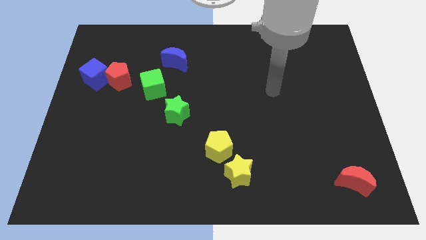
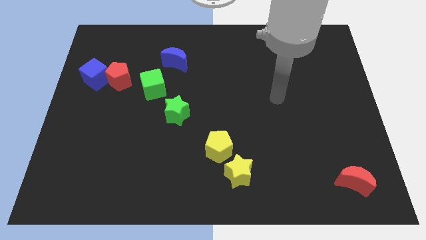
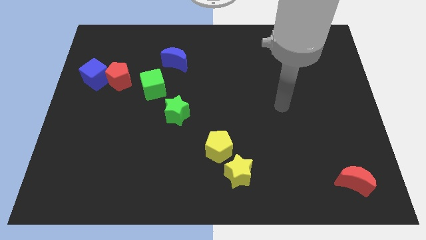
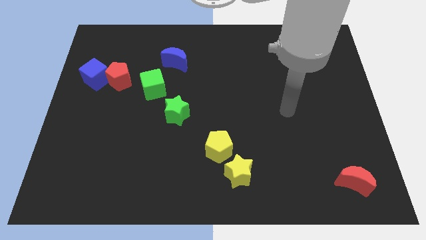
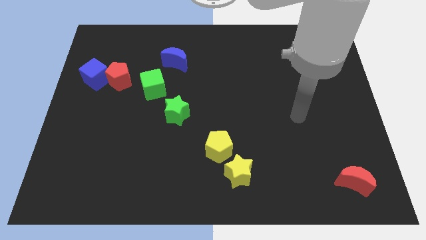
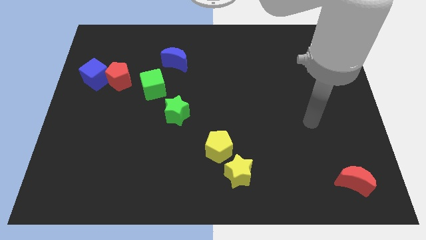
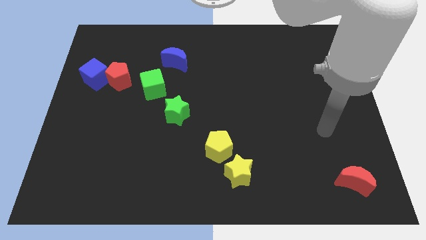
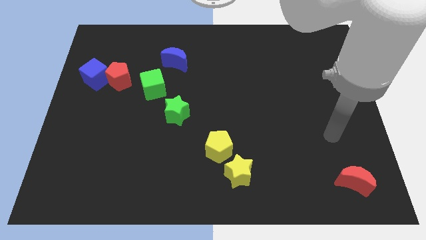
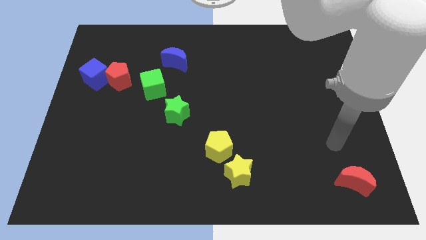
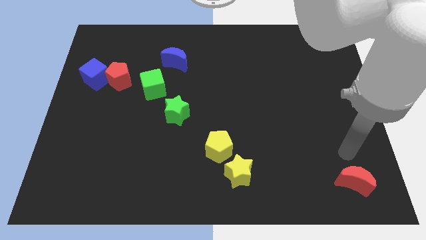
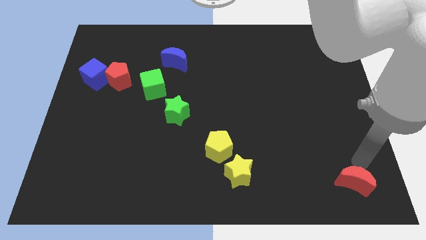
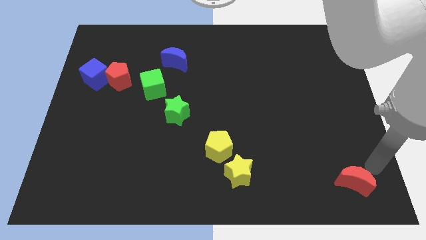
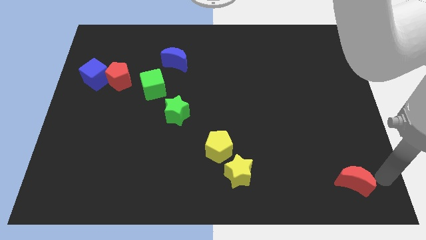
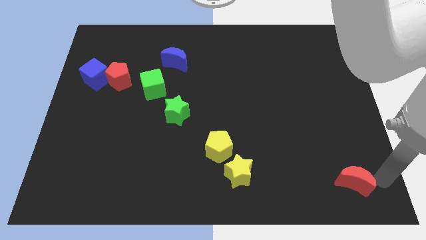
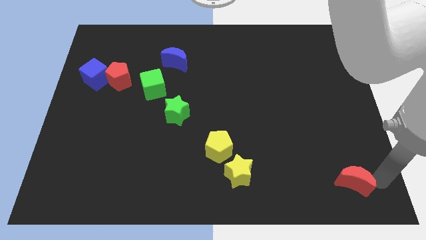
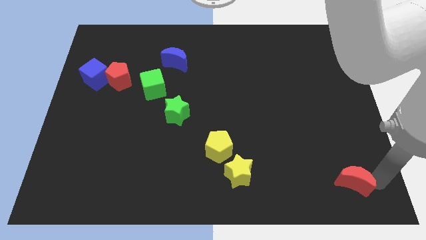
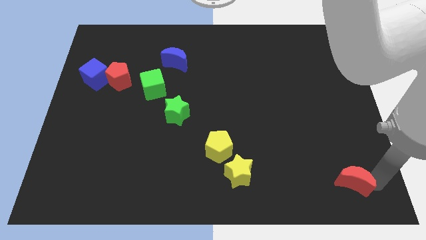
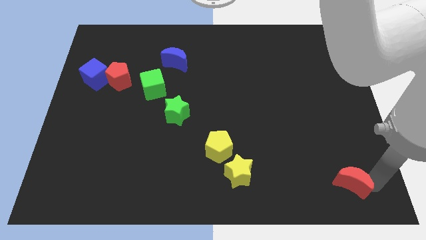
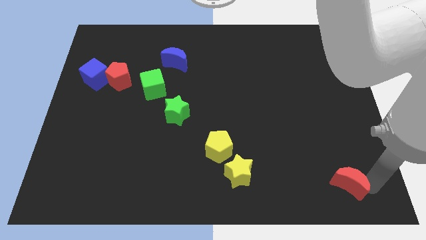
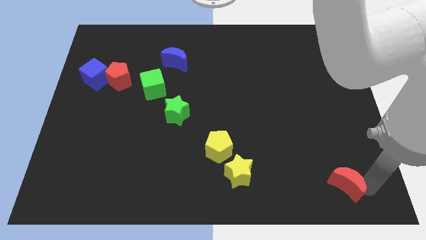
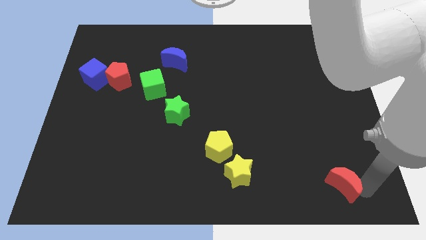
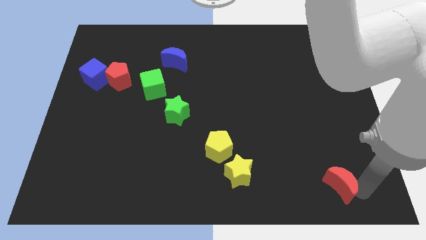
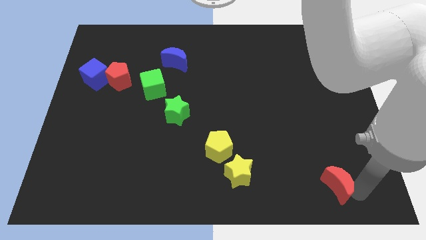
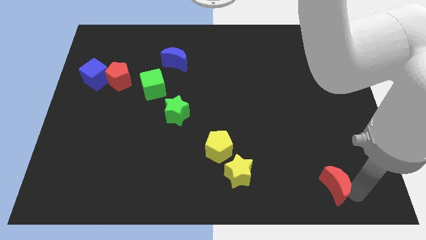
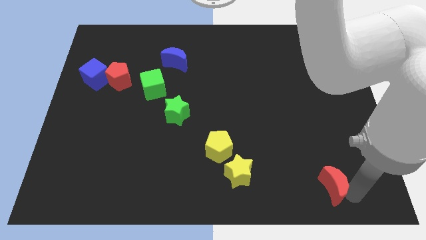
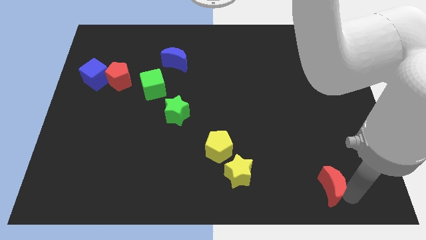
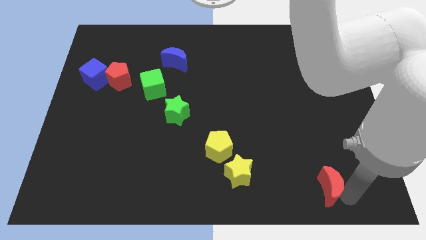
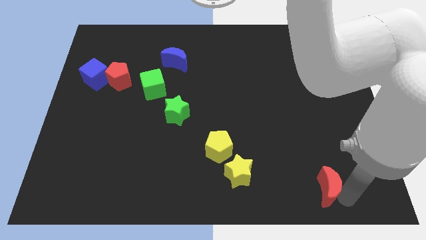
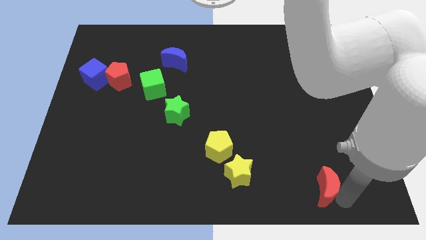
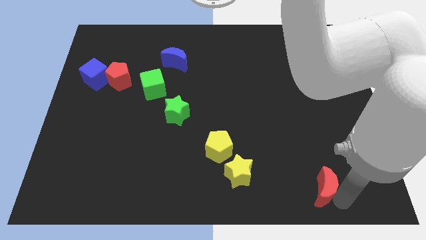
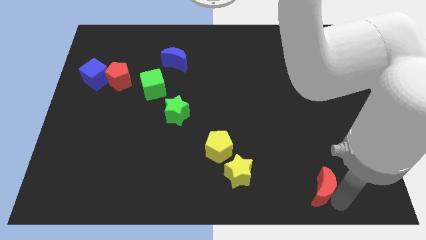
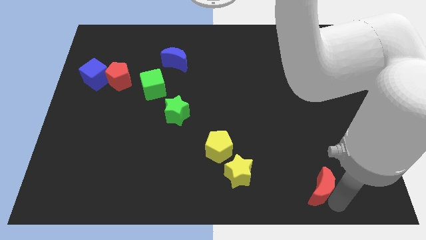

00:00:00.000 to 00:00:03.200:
slightly slide the red moon left

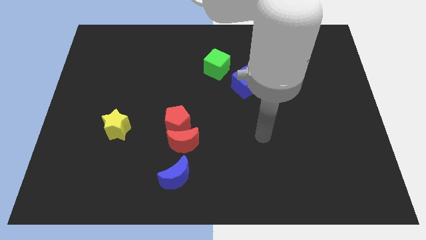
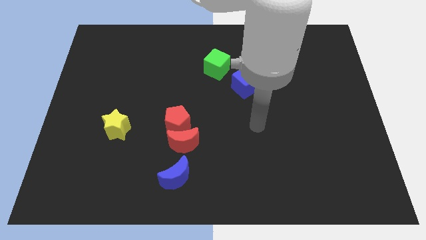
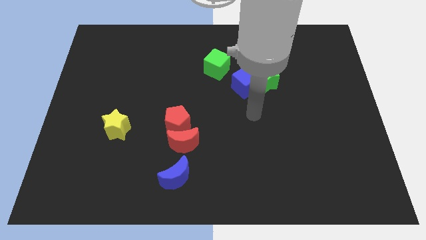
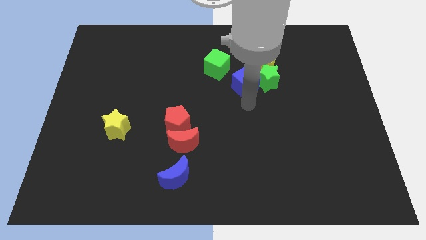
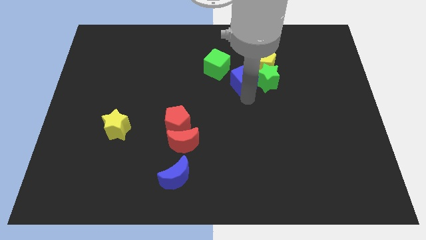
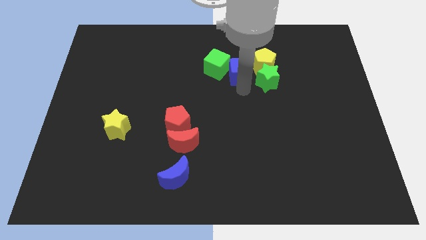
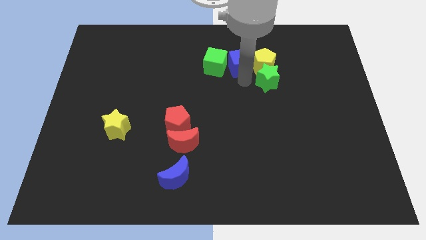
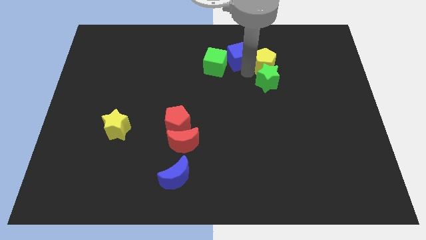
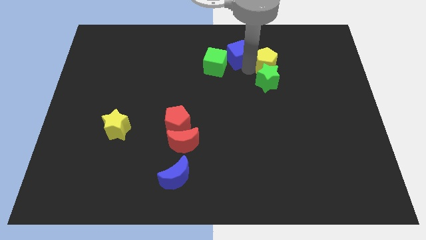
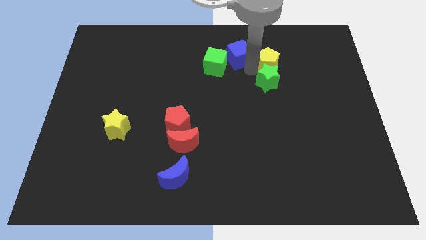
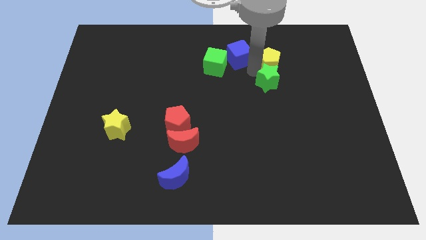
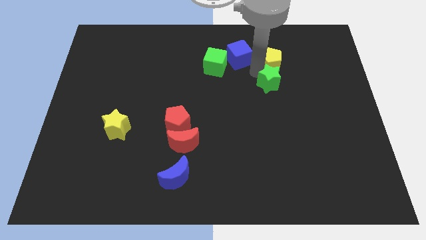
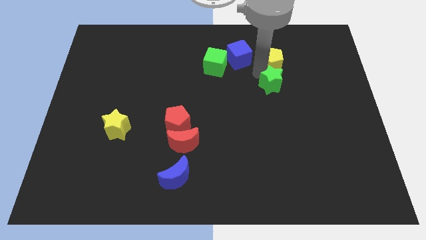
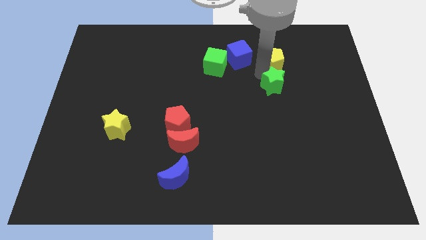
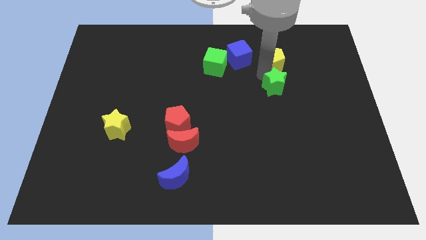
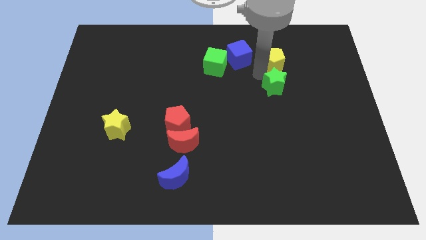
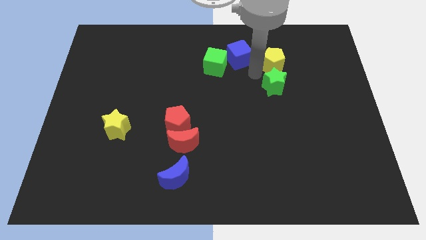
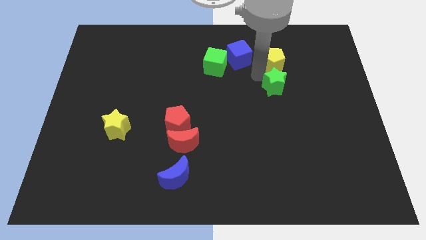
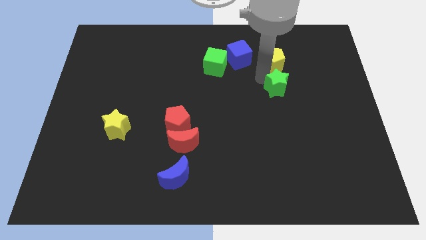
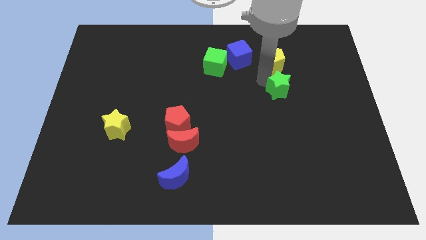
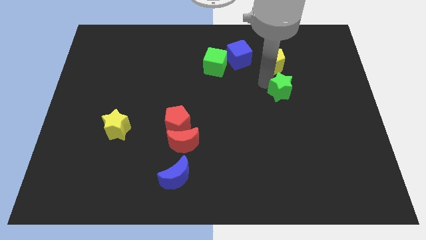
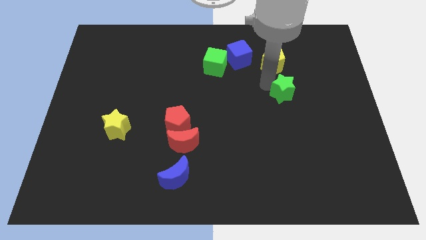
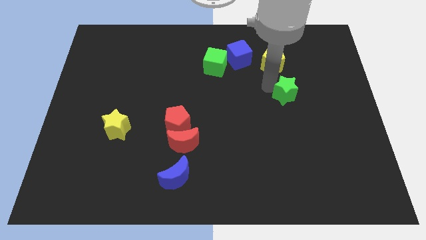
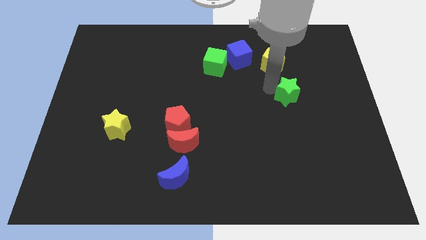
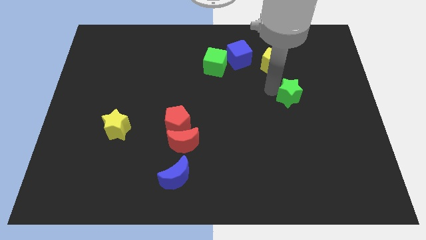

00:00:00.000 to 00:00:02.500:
slide the green star down and right somewhat

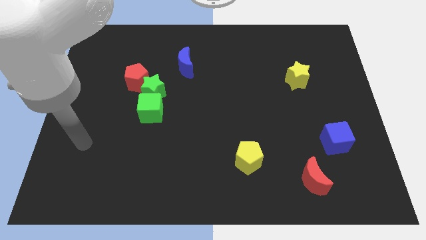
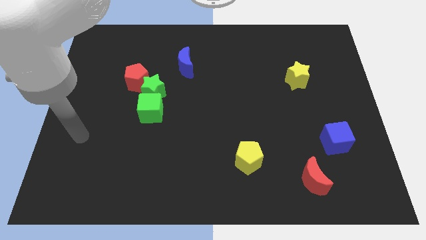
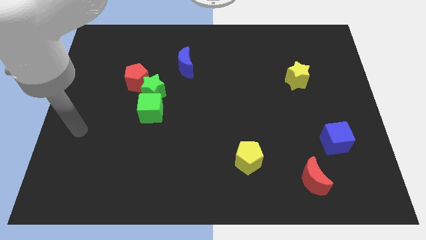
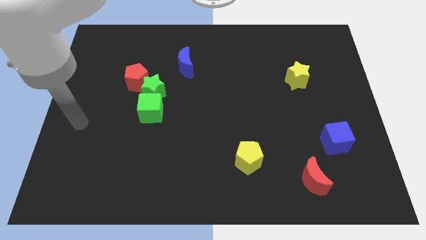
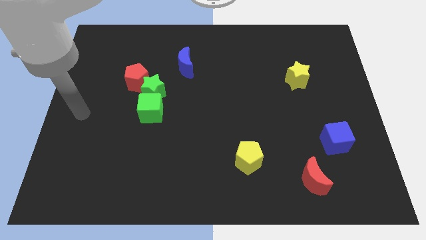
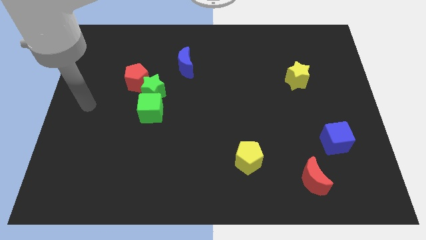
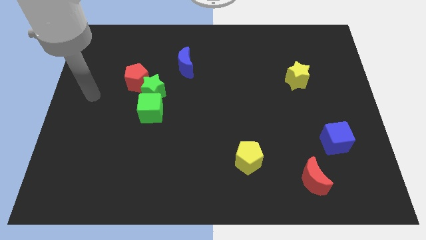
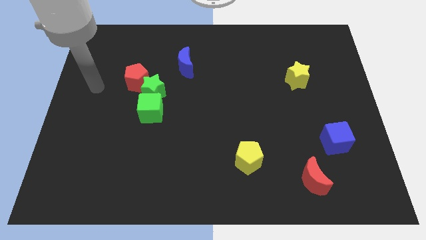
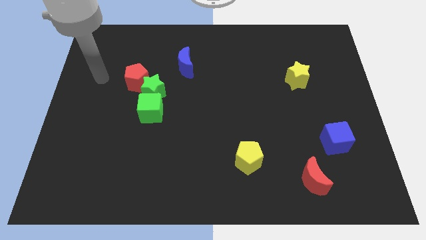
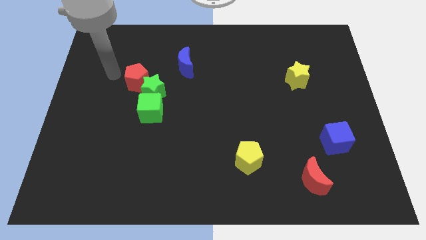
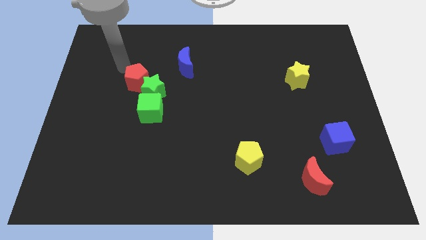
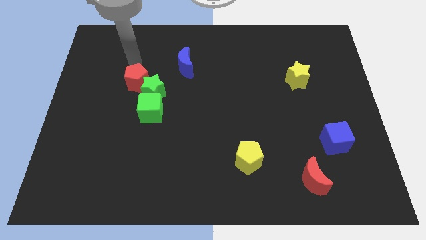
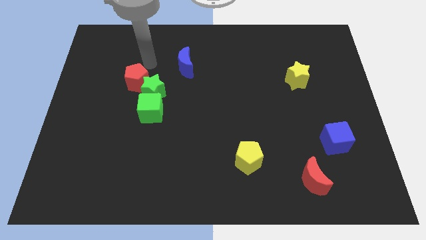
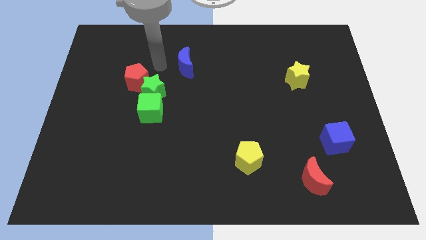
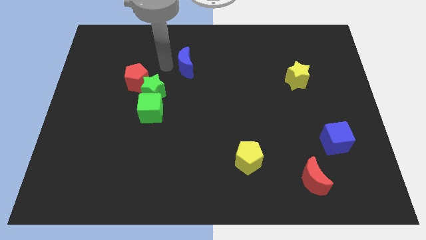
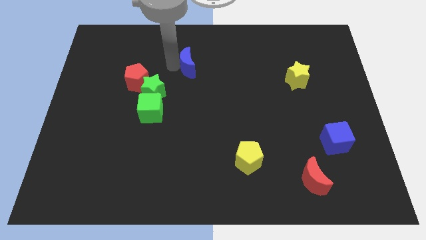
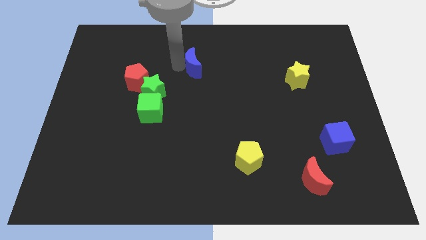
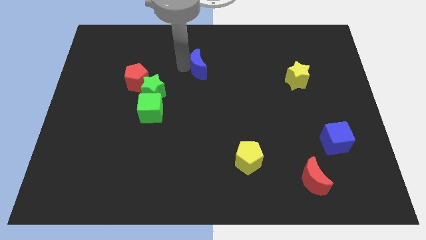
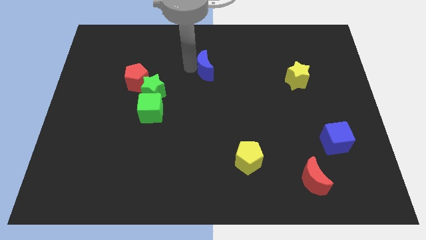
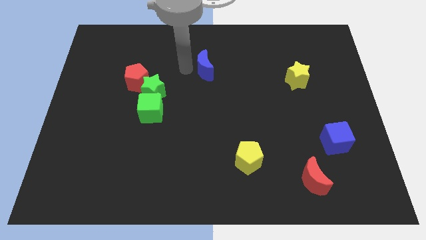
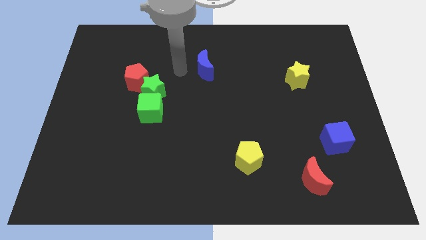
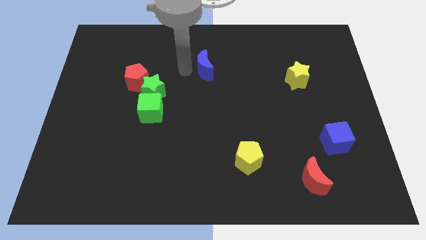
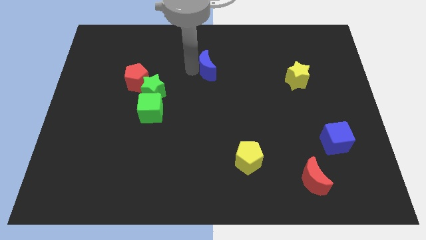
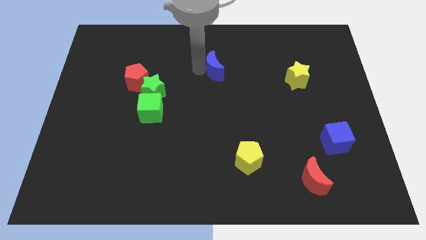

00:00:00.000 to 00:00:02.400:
slightly slide the blue moon right
